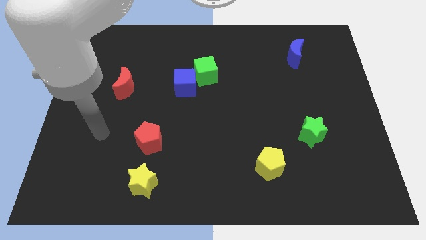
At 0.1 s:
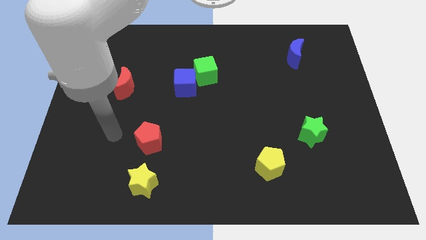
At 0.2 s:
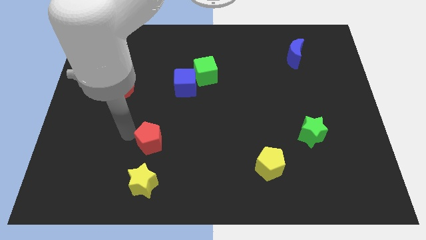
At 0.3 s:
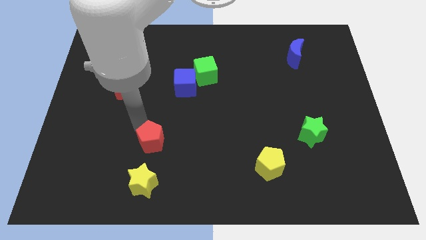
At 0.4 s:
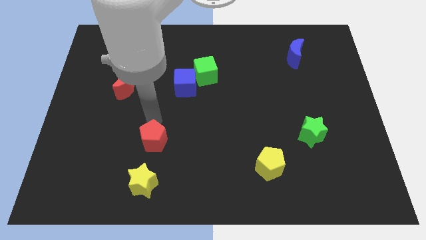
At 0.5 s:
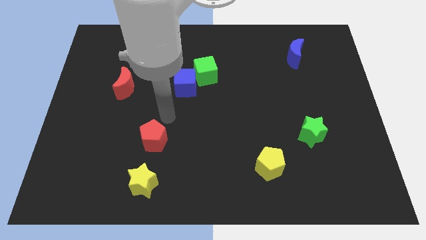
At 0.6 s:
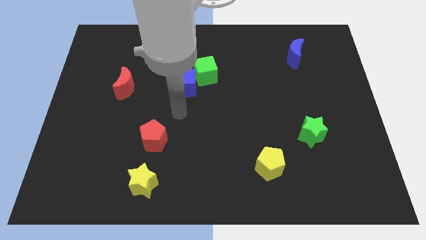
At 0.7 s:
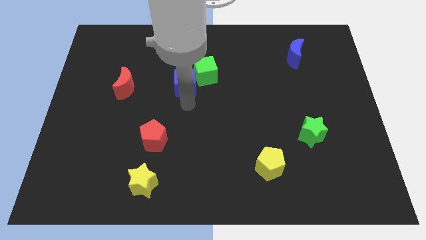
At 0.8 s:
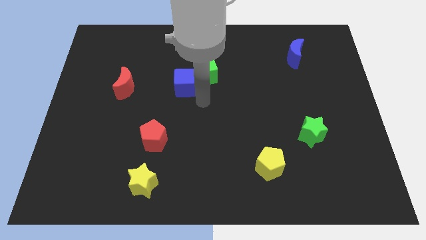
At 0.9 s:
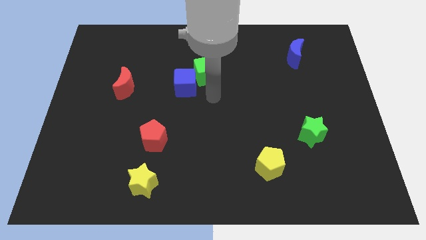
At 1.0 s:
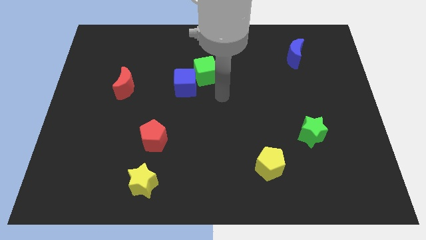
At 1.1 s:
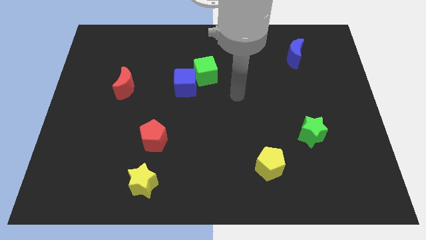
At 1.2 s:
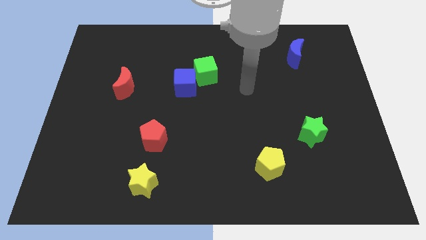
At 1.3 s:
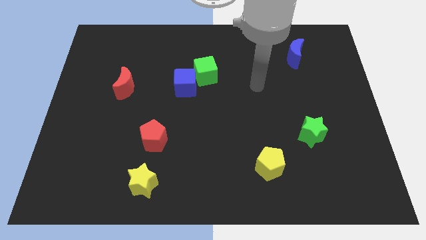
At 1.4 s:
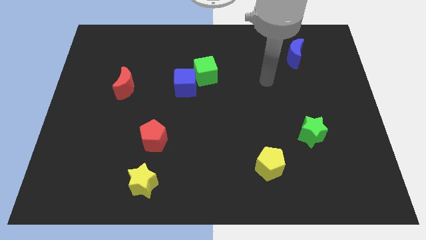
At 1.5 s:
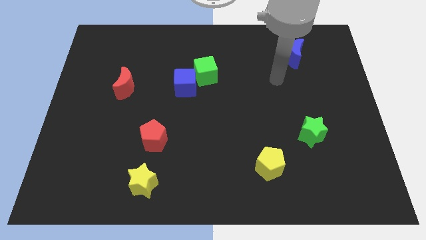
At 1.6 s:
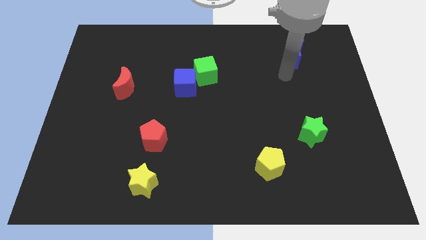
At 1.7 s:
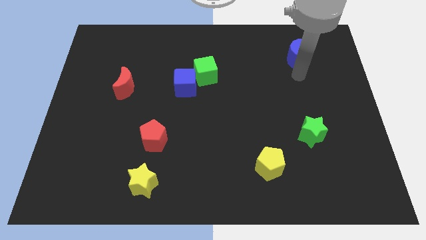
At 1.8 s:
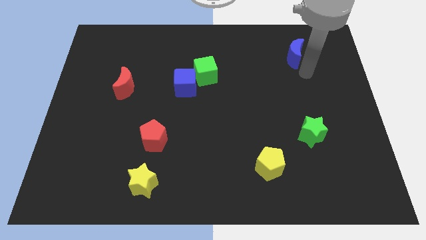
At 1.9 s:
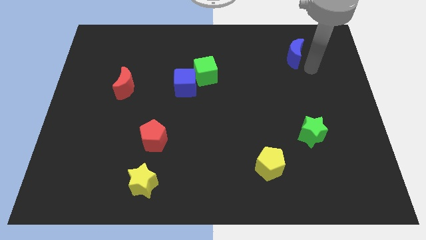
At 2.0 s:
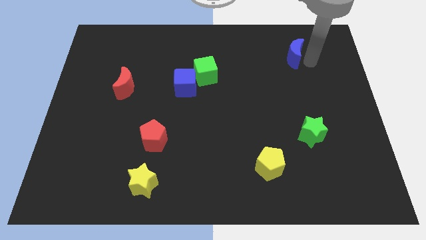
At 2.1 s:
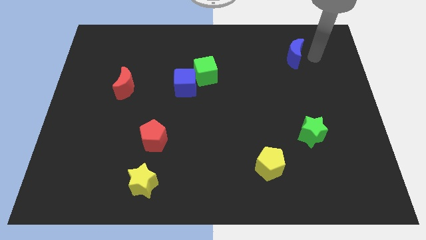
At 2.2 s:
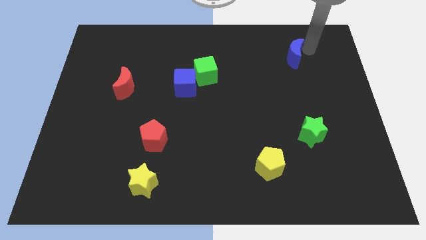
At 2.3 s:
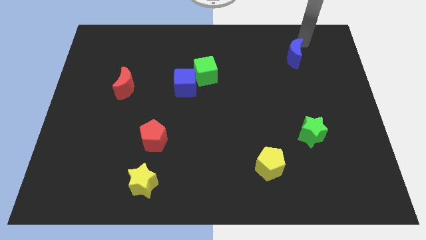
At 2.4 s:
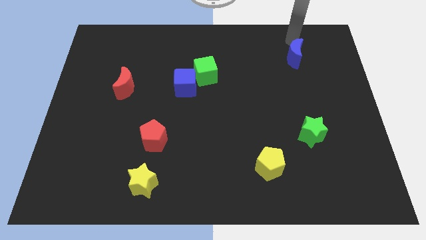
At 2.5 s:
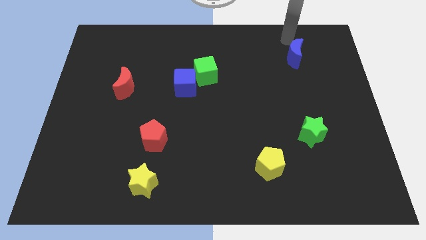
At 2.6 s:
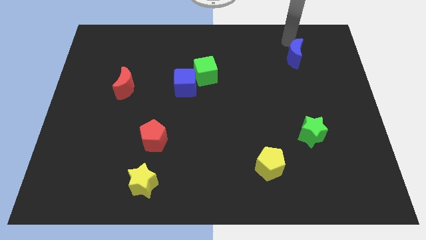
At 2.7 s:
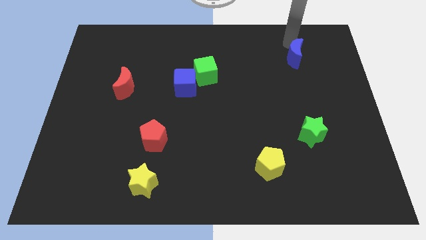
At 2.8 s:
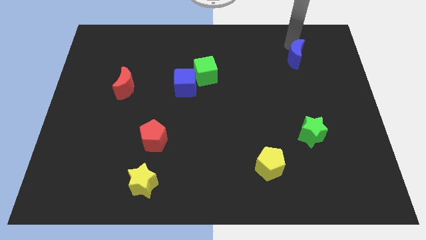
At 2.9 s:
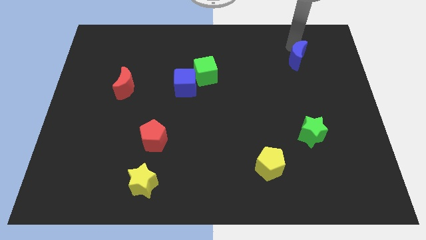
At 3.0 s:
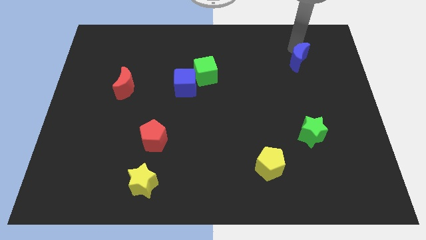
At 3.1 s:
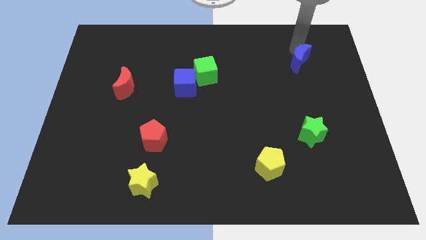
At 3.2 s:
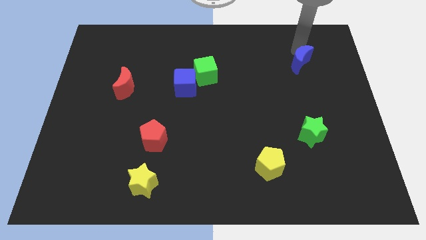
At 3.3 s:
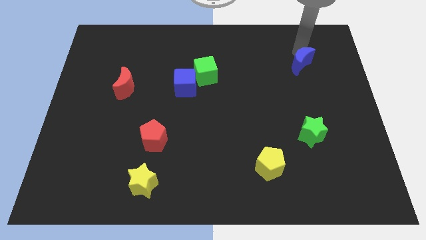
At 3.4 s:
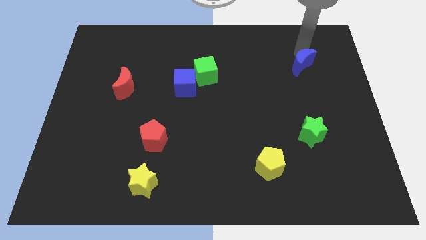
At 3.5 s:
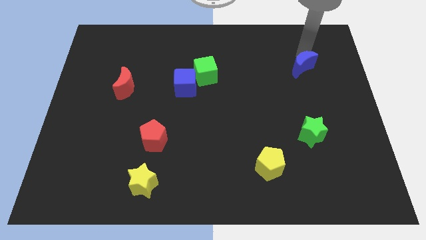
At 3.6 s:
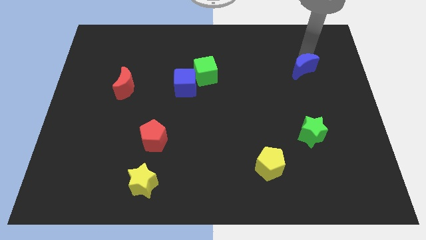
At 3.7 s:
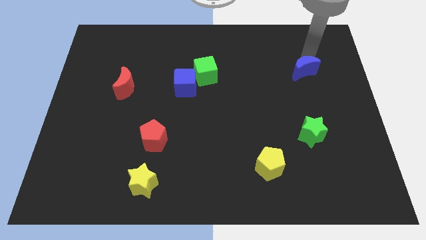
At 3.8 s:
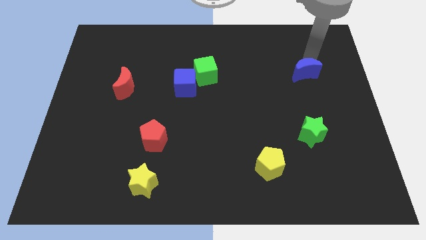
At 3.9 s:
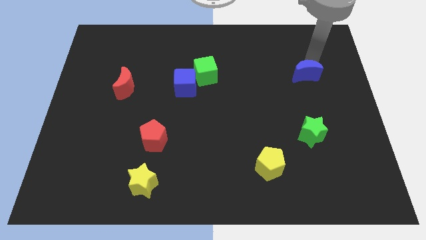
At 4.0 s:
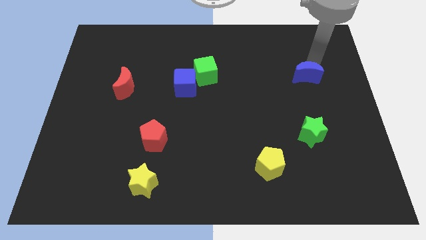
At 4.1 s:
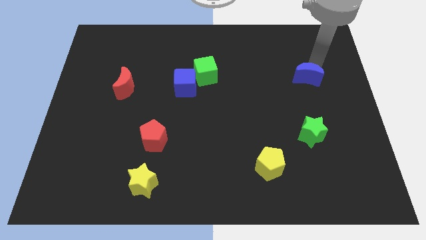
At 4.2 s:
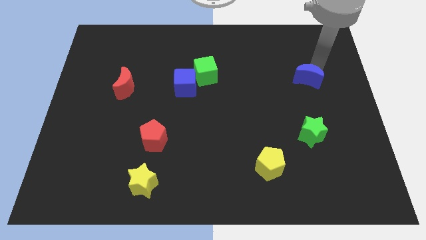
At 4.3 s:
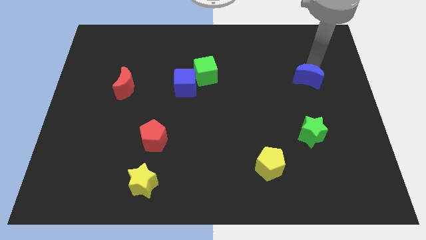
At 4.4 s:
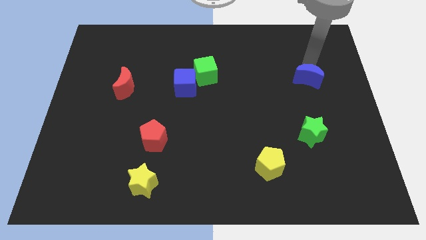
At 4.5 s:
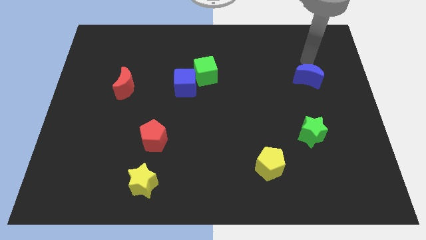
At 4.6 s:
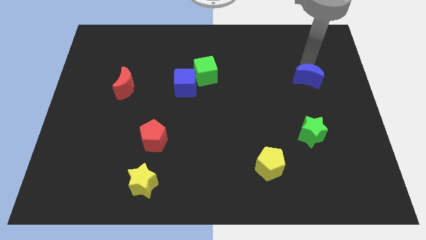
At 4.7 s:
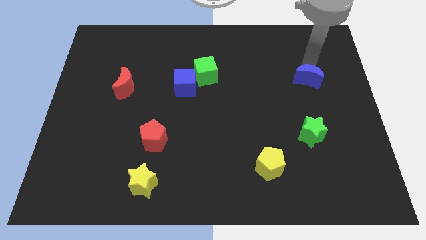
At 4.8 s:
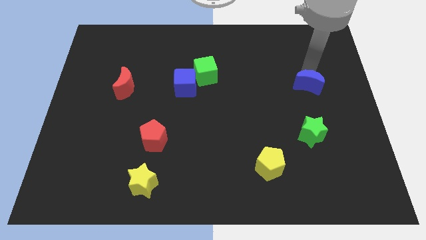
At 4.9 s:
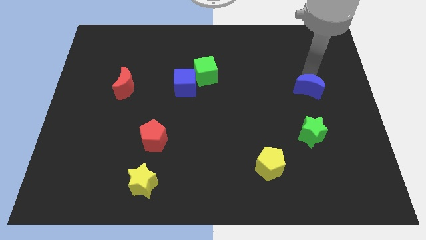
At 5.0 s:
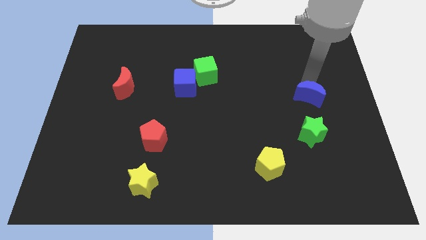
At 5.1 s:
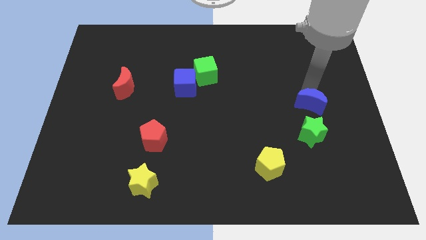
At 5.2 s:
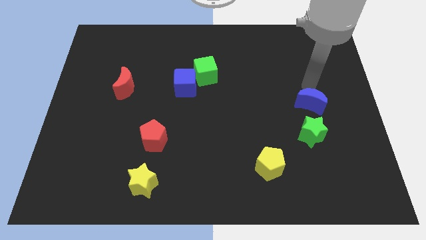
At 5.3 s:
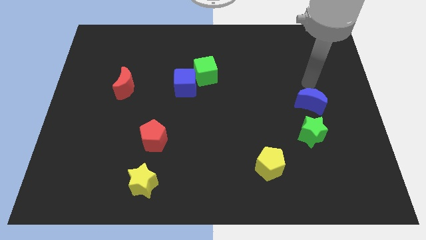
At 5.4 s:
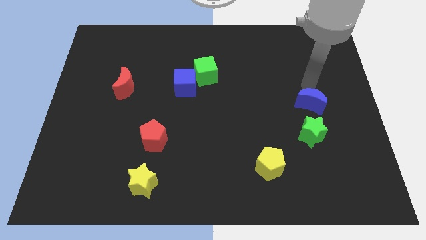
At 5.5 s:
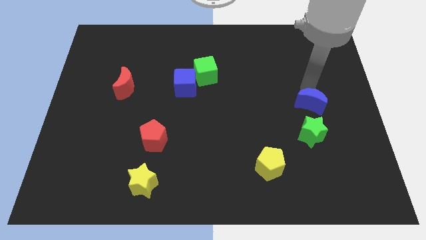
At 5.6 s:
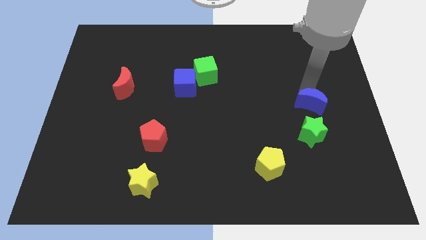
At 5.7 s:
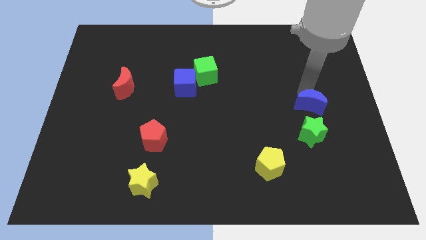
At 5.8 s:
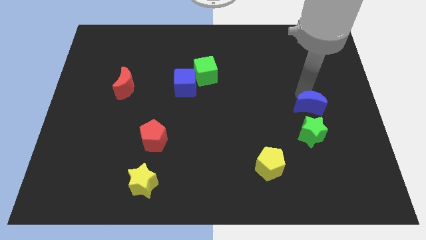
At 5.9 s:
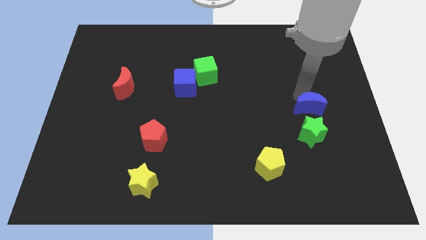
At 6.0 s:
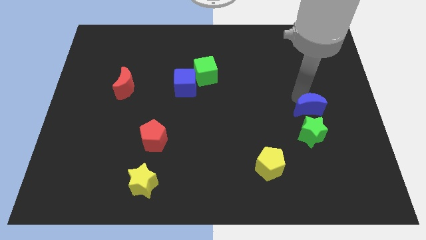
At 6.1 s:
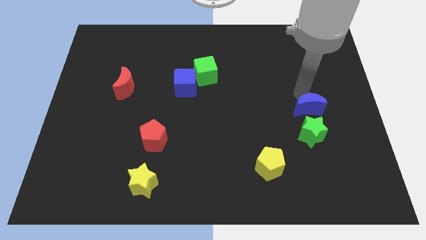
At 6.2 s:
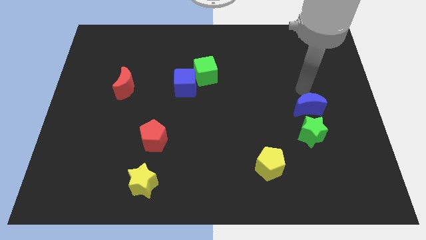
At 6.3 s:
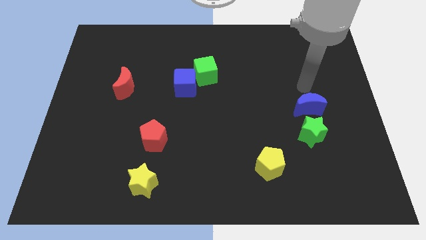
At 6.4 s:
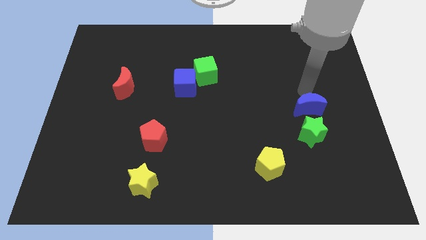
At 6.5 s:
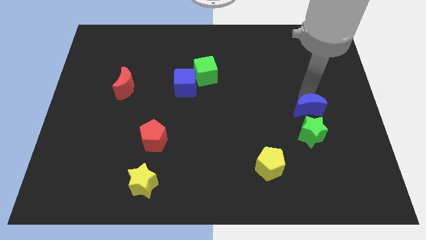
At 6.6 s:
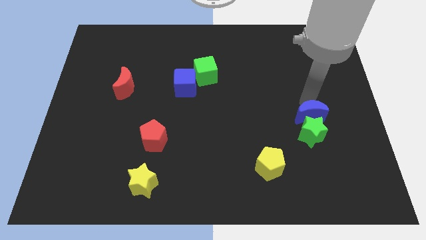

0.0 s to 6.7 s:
move the blue moon to the green star

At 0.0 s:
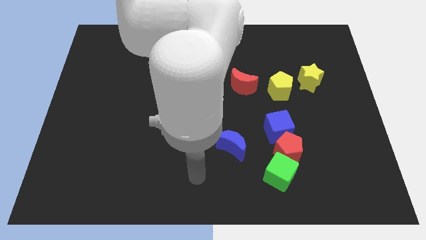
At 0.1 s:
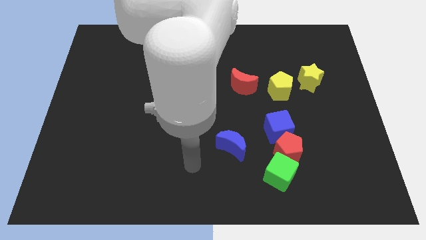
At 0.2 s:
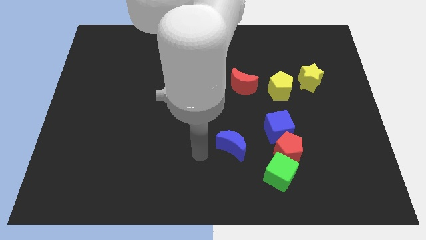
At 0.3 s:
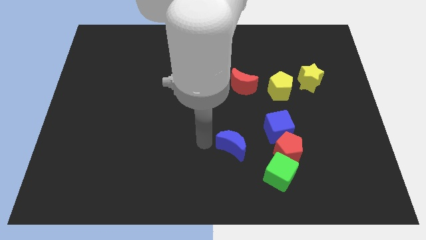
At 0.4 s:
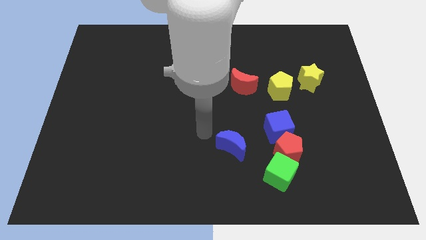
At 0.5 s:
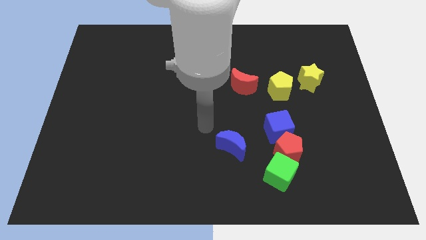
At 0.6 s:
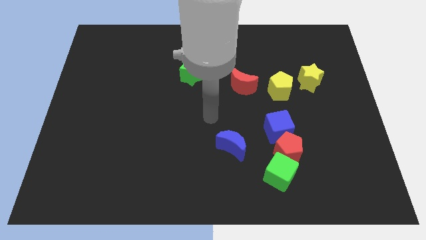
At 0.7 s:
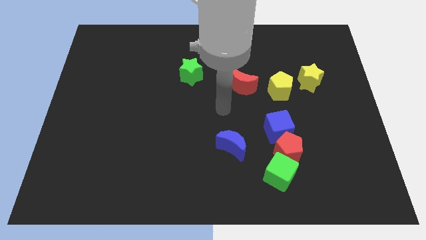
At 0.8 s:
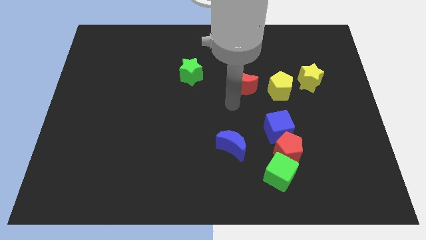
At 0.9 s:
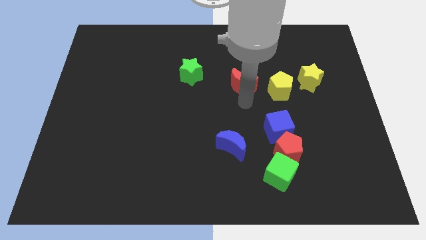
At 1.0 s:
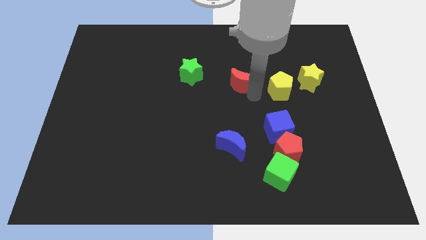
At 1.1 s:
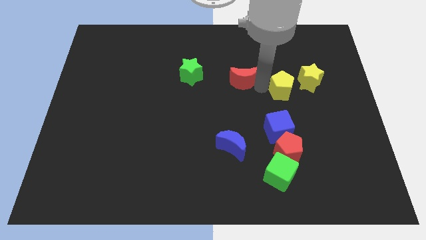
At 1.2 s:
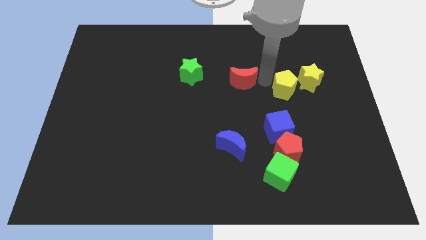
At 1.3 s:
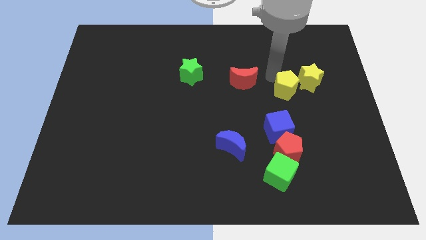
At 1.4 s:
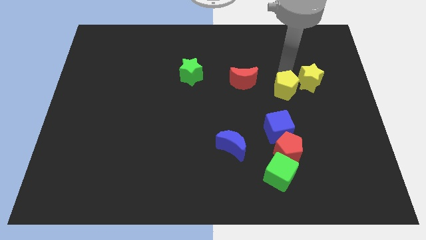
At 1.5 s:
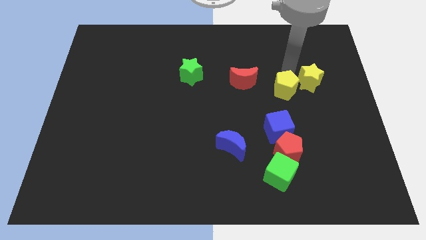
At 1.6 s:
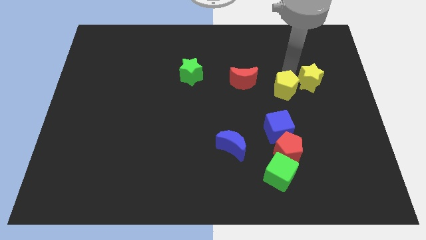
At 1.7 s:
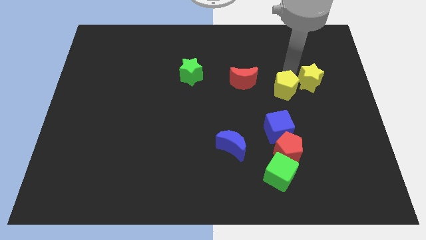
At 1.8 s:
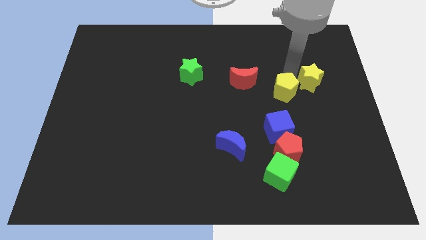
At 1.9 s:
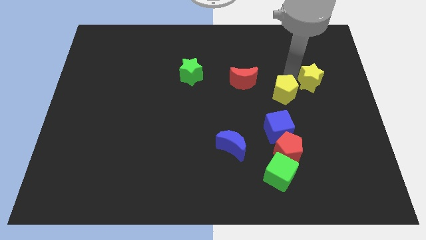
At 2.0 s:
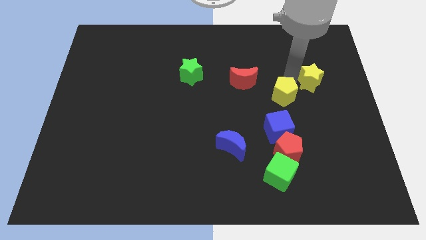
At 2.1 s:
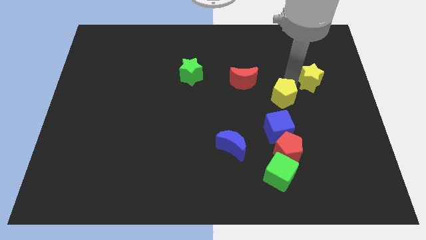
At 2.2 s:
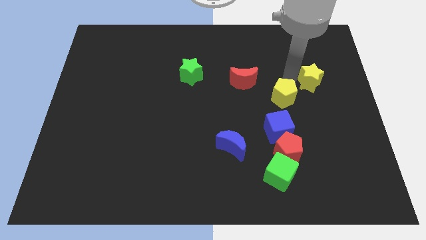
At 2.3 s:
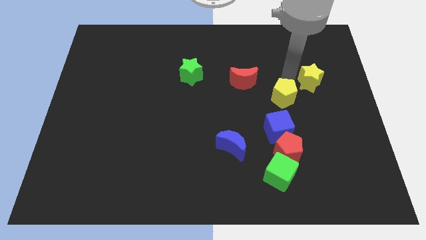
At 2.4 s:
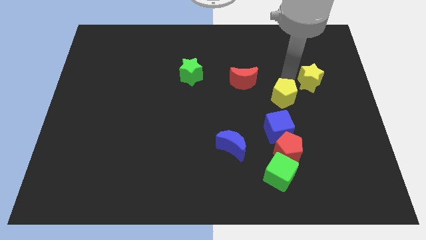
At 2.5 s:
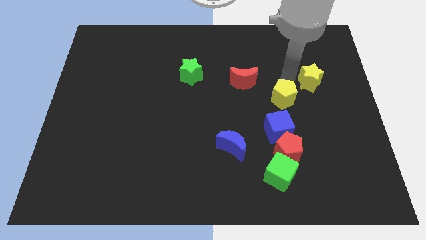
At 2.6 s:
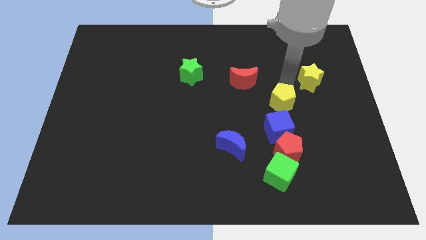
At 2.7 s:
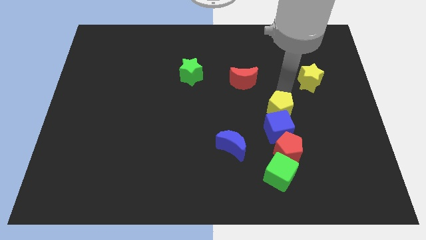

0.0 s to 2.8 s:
put the yellow pentagon towards the blue cube
